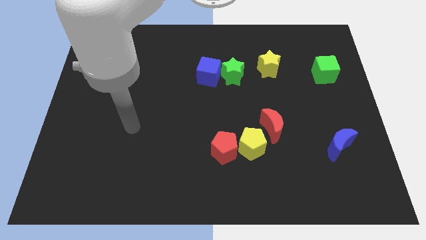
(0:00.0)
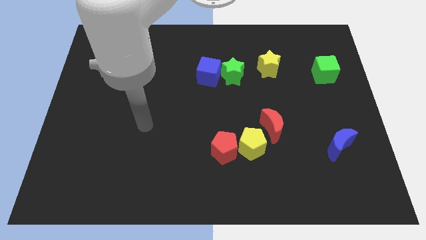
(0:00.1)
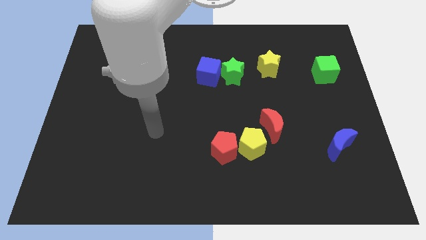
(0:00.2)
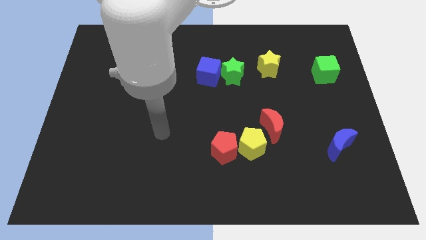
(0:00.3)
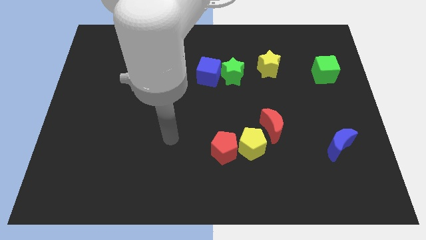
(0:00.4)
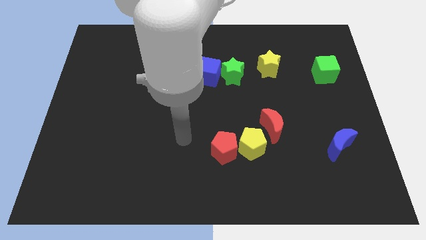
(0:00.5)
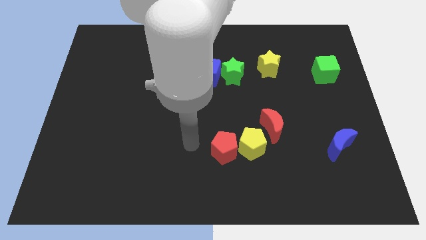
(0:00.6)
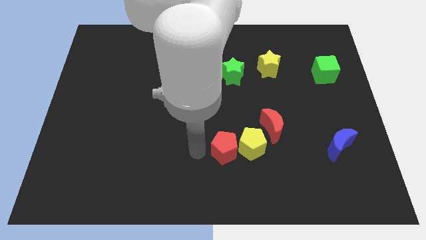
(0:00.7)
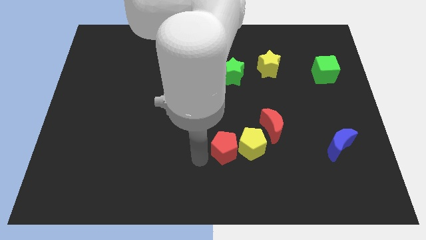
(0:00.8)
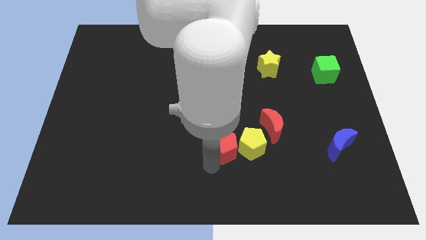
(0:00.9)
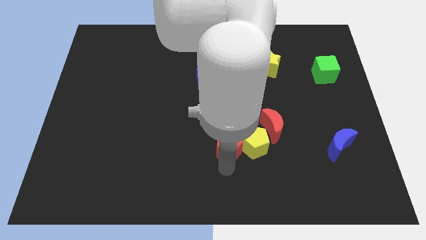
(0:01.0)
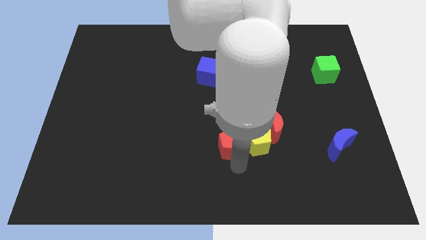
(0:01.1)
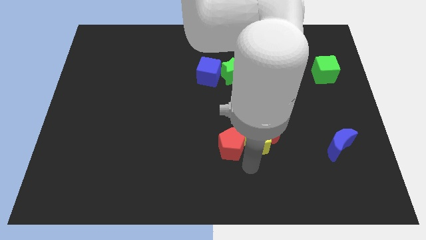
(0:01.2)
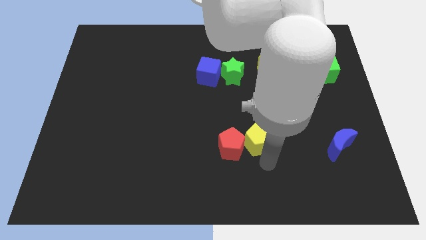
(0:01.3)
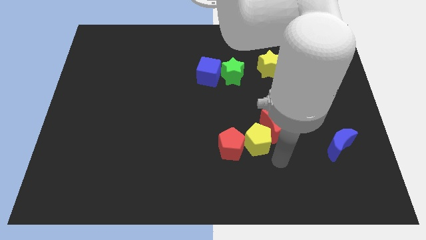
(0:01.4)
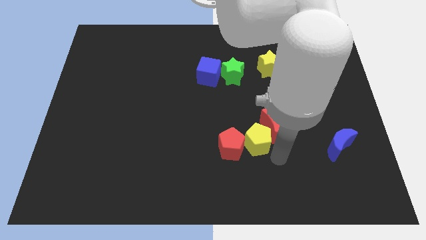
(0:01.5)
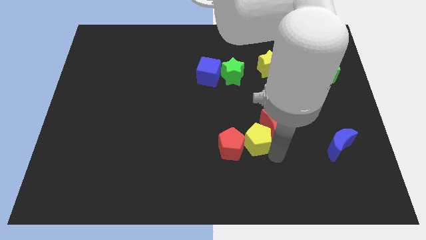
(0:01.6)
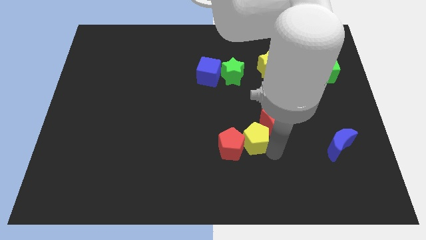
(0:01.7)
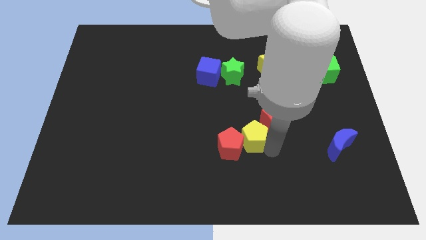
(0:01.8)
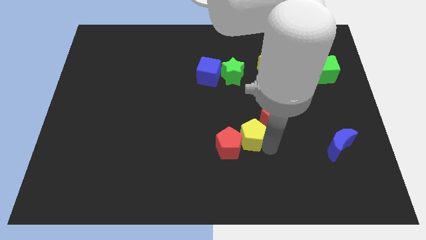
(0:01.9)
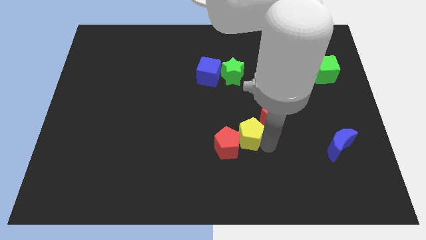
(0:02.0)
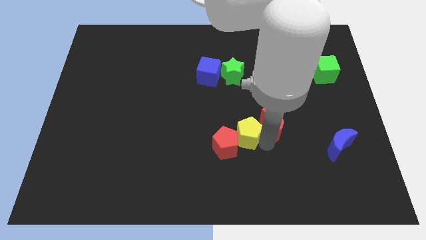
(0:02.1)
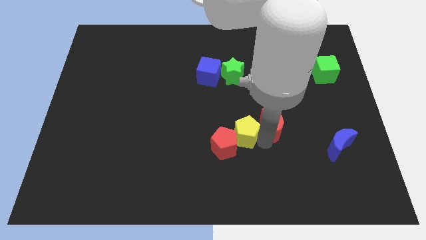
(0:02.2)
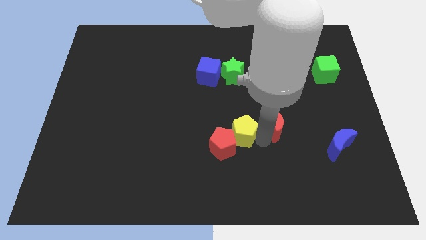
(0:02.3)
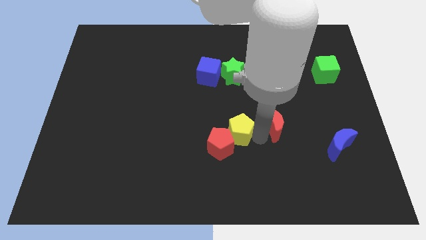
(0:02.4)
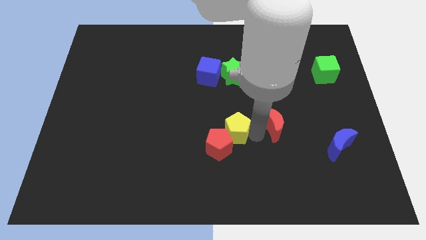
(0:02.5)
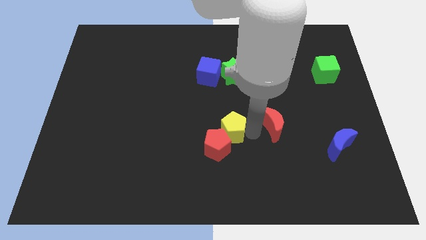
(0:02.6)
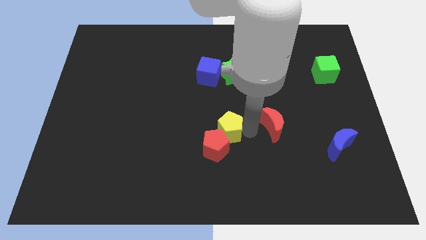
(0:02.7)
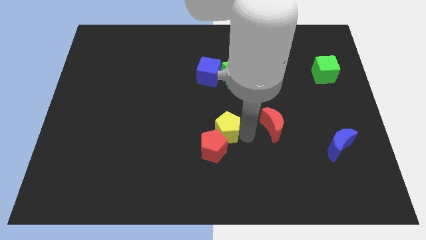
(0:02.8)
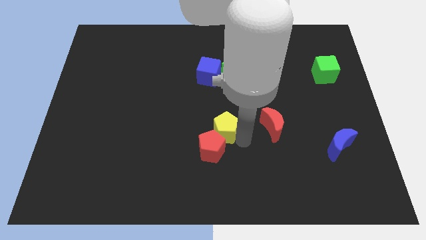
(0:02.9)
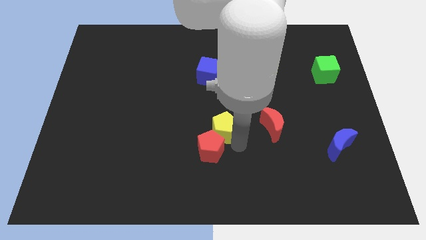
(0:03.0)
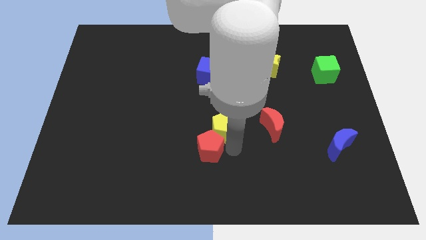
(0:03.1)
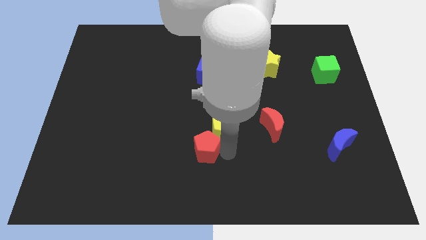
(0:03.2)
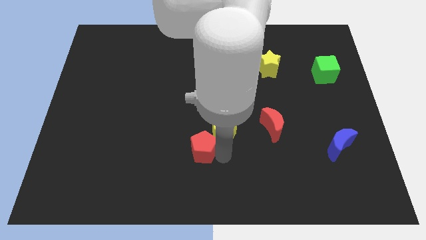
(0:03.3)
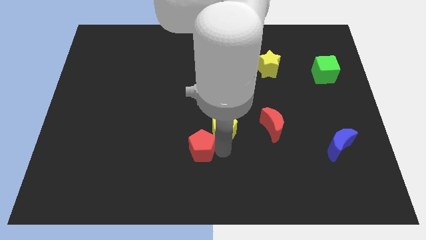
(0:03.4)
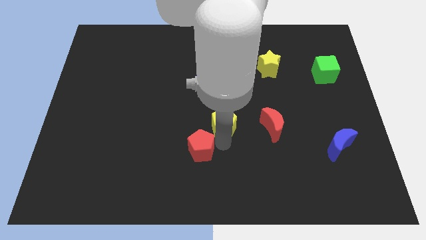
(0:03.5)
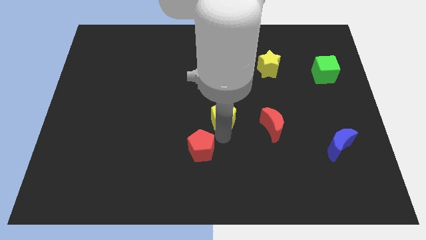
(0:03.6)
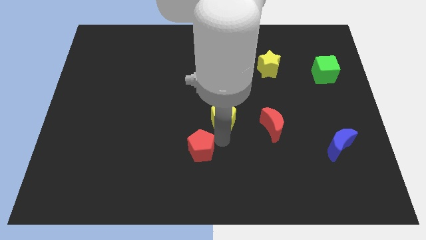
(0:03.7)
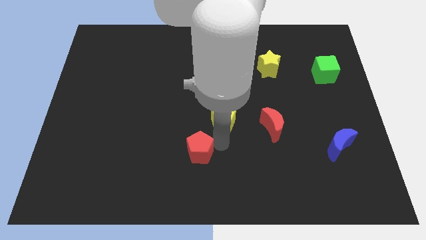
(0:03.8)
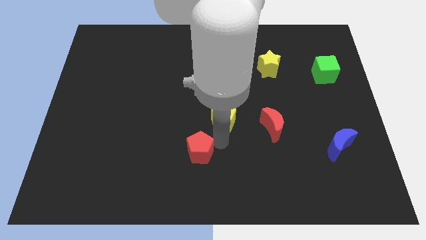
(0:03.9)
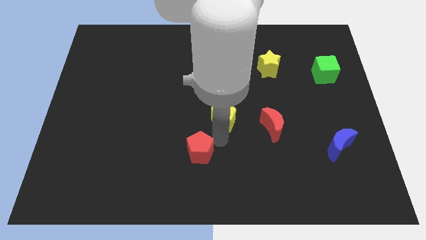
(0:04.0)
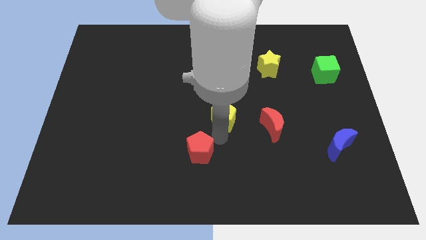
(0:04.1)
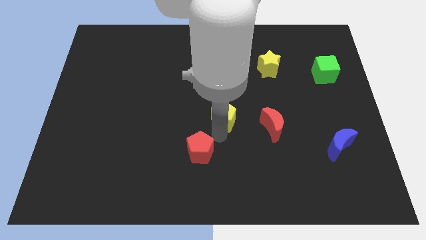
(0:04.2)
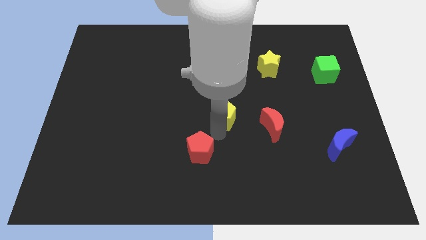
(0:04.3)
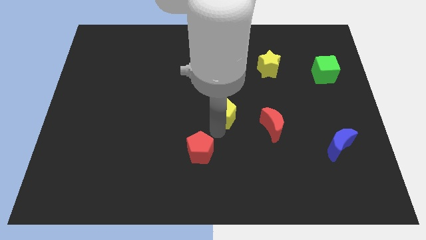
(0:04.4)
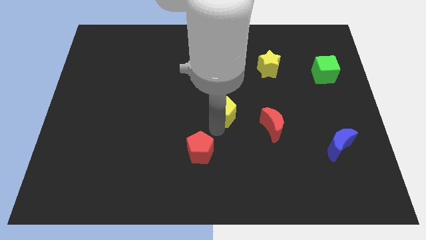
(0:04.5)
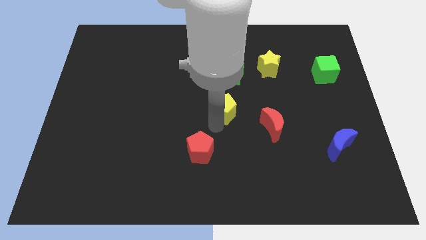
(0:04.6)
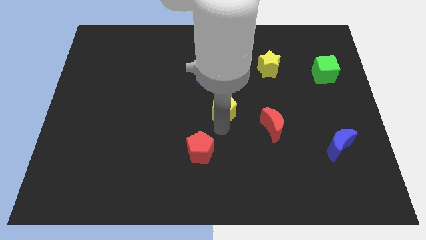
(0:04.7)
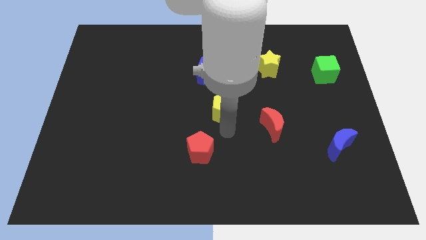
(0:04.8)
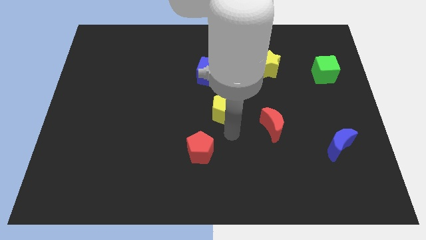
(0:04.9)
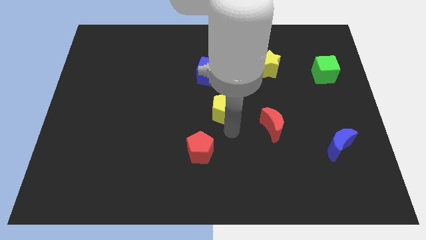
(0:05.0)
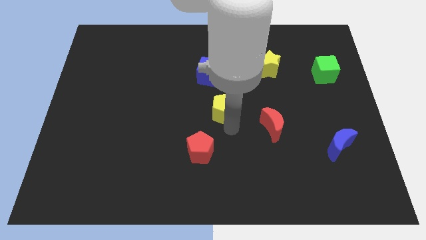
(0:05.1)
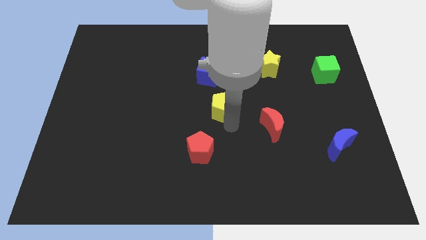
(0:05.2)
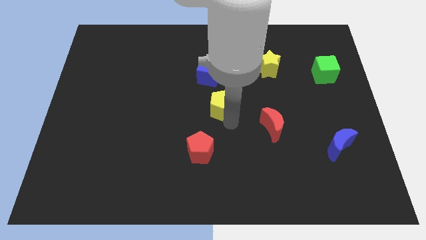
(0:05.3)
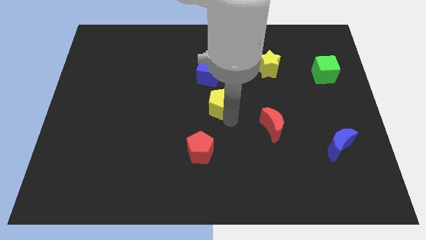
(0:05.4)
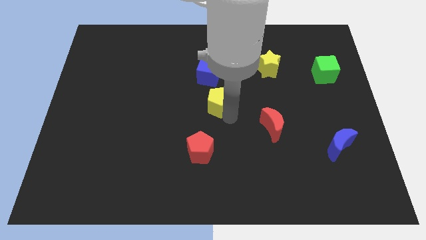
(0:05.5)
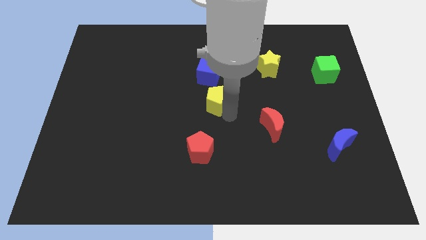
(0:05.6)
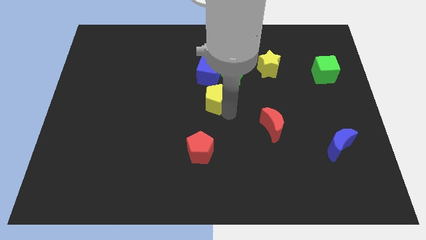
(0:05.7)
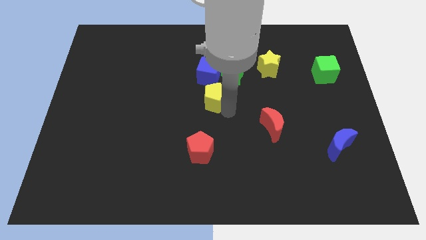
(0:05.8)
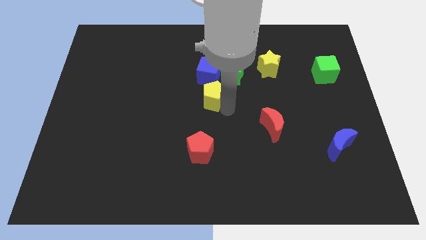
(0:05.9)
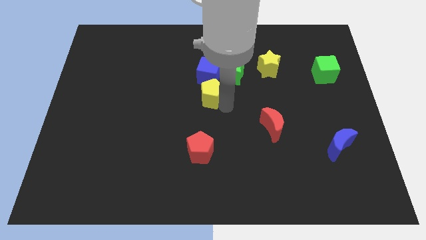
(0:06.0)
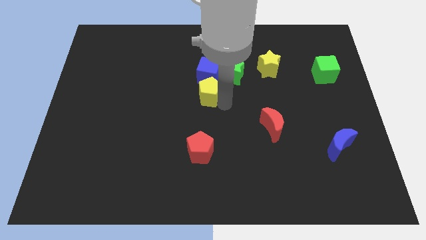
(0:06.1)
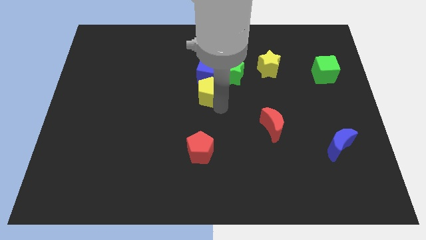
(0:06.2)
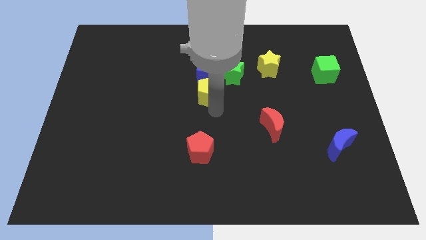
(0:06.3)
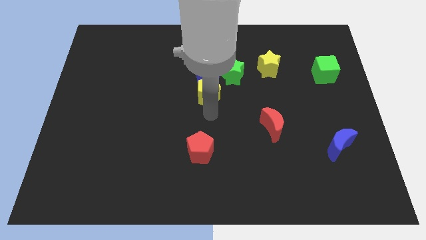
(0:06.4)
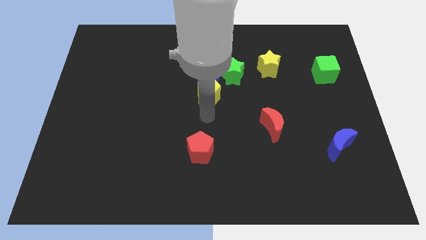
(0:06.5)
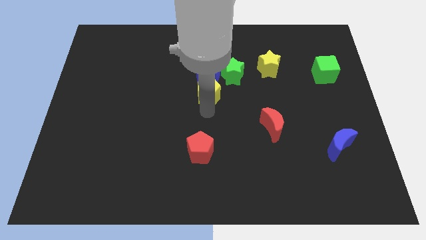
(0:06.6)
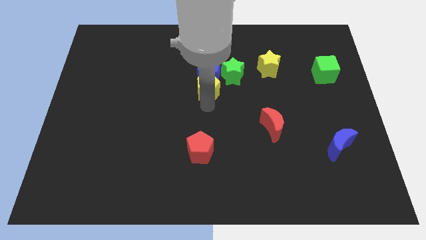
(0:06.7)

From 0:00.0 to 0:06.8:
slide the yellow pentagon towards the blue cube

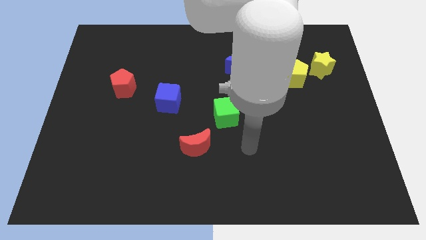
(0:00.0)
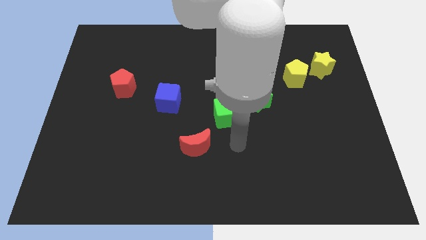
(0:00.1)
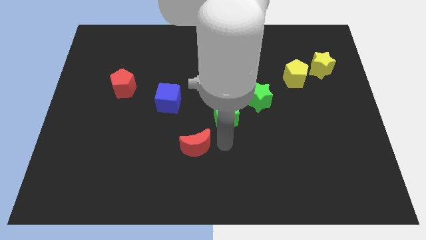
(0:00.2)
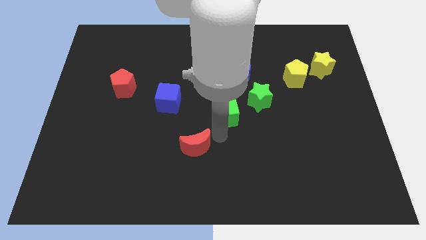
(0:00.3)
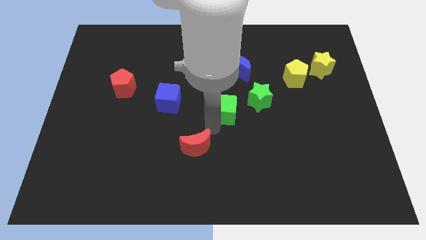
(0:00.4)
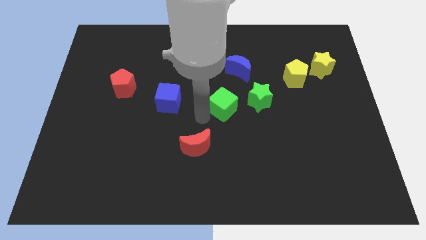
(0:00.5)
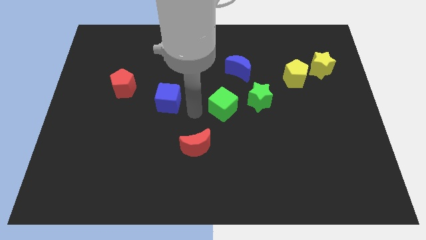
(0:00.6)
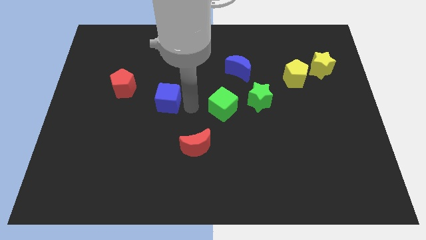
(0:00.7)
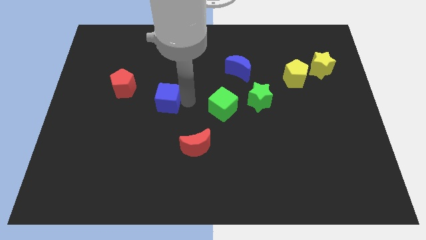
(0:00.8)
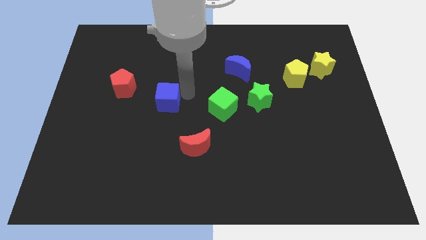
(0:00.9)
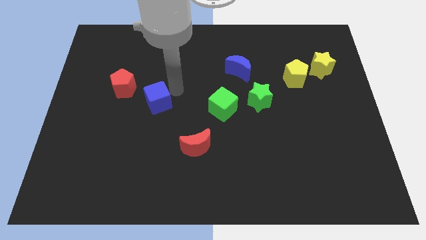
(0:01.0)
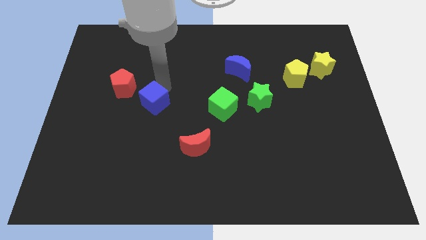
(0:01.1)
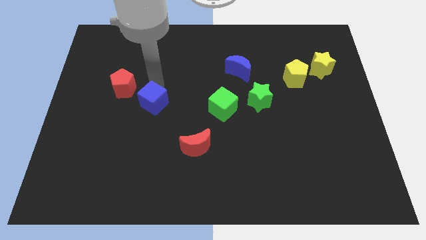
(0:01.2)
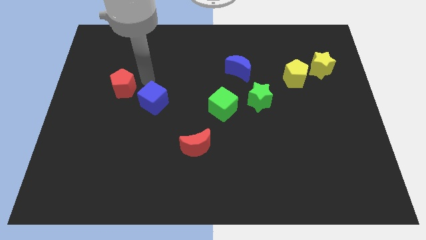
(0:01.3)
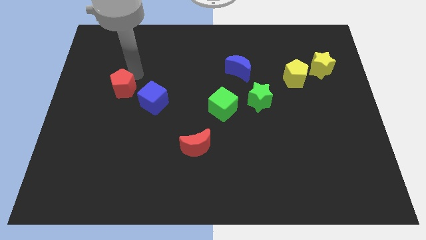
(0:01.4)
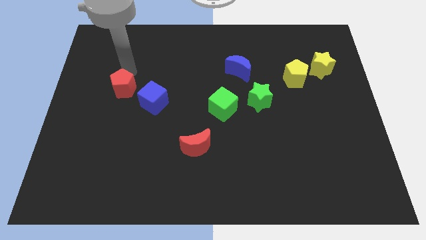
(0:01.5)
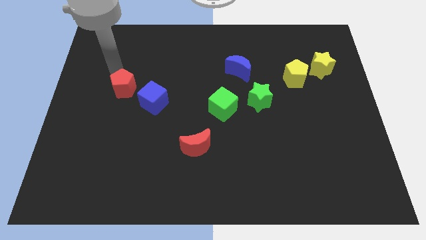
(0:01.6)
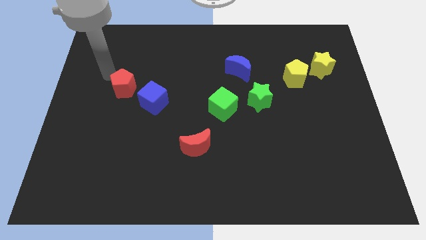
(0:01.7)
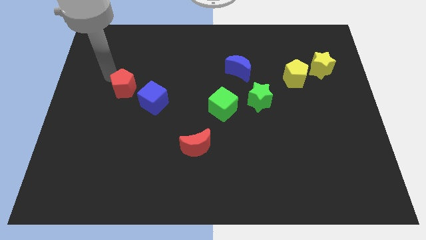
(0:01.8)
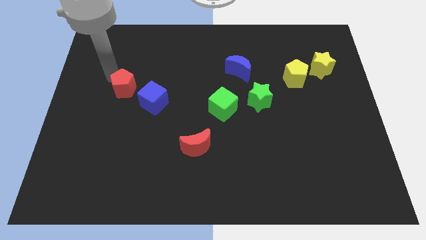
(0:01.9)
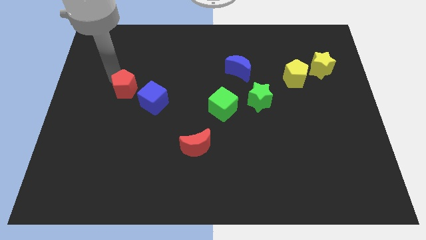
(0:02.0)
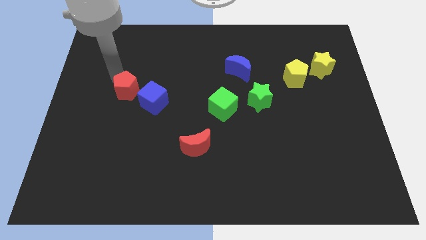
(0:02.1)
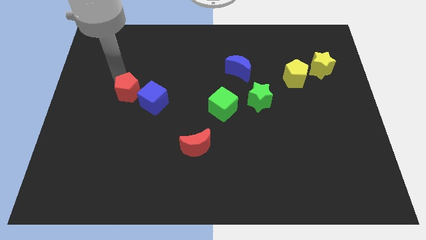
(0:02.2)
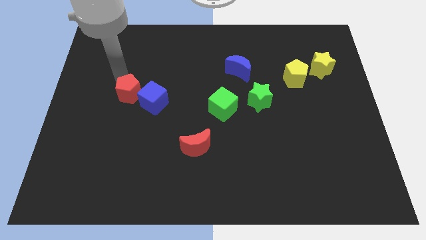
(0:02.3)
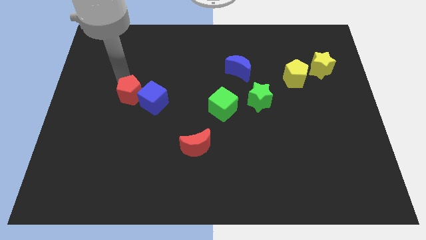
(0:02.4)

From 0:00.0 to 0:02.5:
put the red pentagon next to the blue cube
